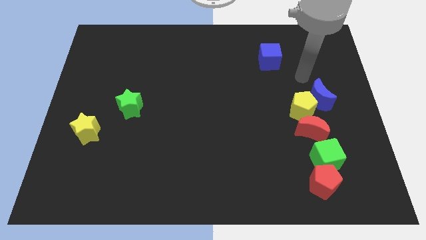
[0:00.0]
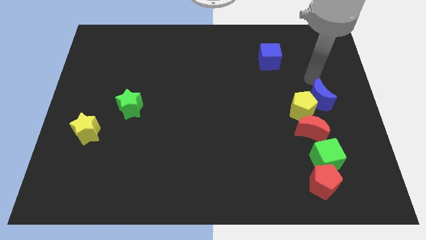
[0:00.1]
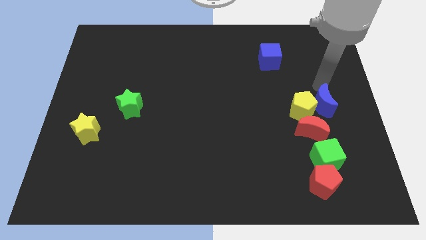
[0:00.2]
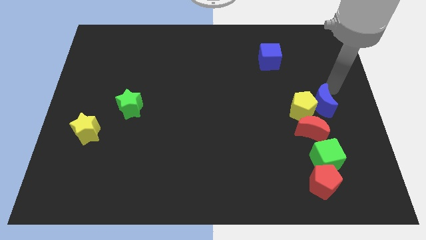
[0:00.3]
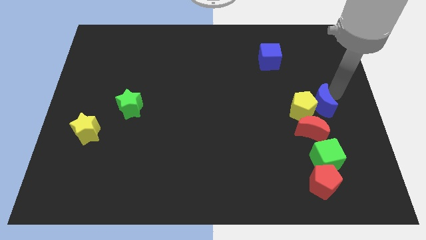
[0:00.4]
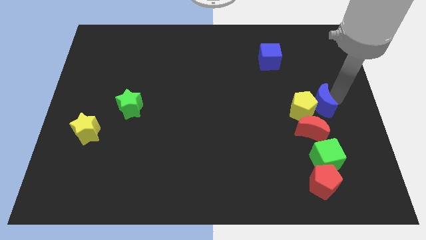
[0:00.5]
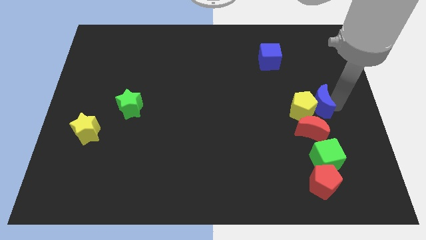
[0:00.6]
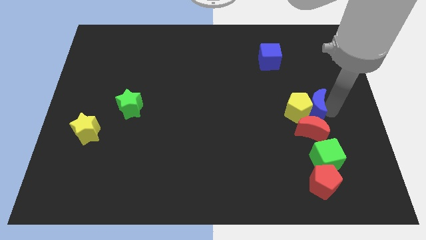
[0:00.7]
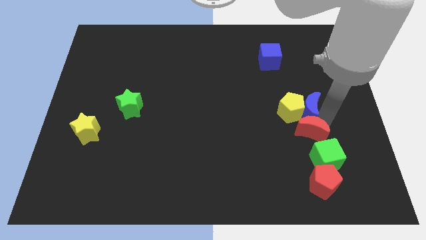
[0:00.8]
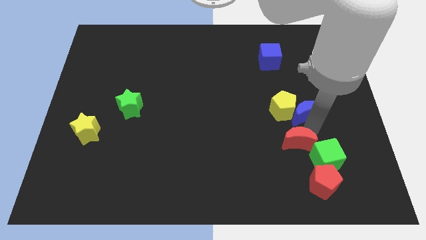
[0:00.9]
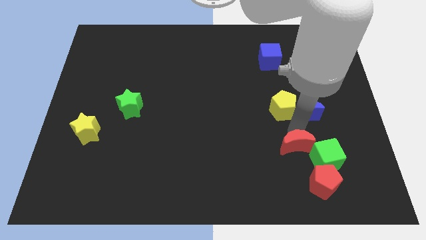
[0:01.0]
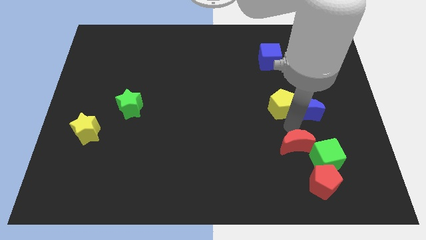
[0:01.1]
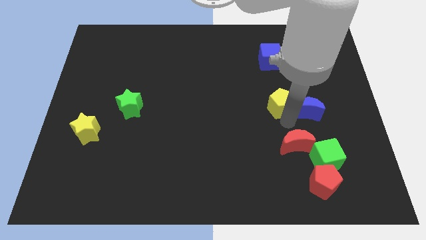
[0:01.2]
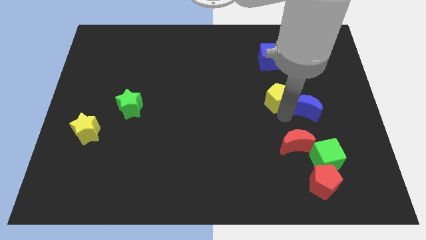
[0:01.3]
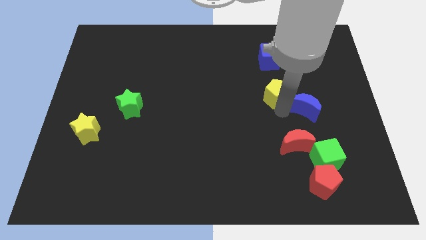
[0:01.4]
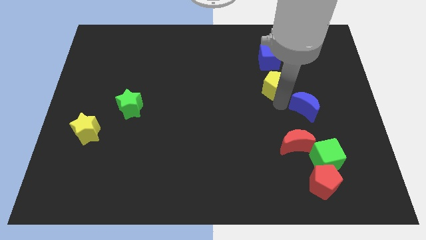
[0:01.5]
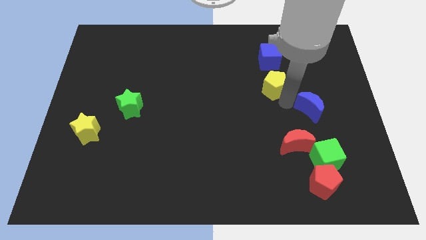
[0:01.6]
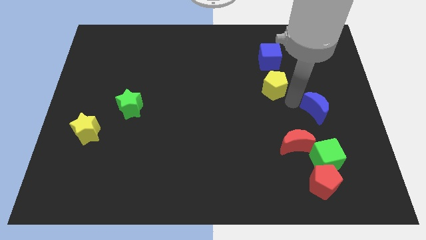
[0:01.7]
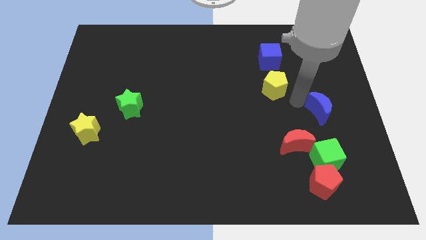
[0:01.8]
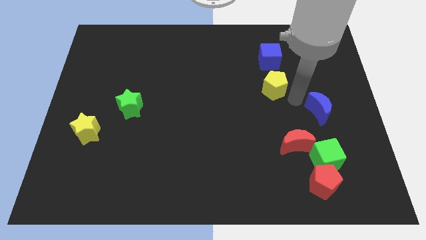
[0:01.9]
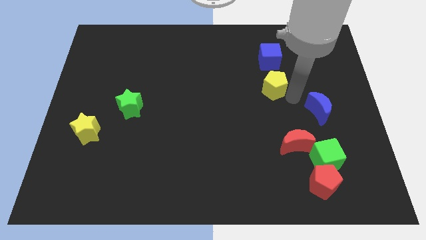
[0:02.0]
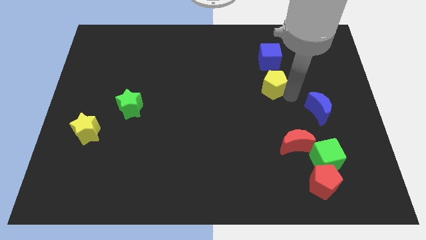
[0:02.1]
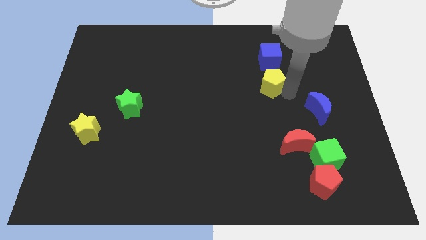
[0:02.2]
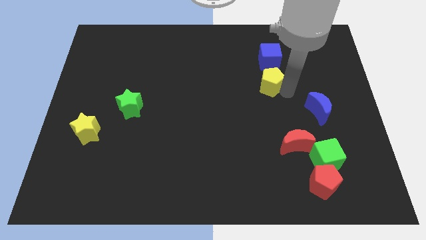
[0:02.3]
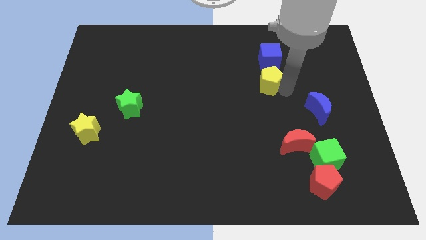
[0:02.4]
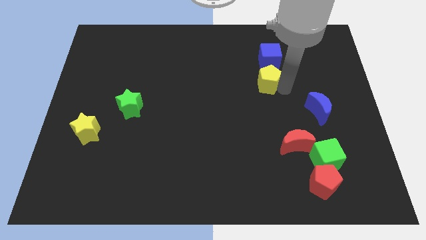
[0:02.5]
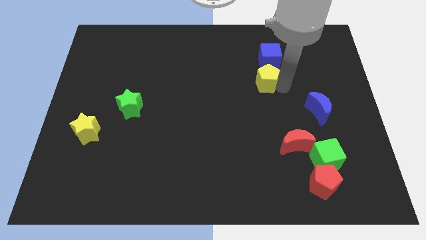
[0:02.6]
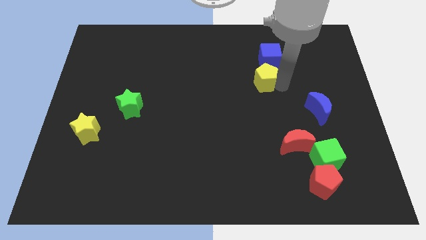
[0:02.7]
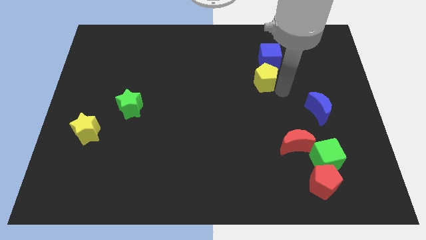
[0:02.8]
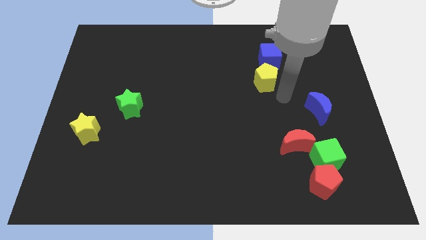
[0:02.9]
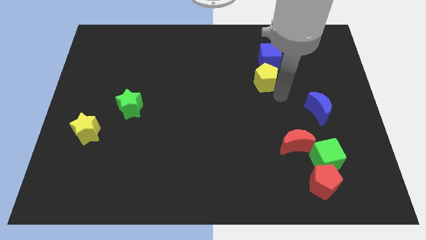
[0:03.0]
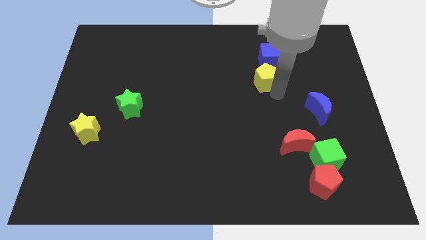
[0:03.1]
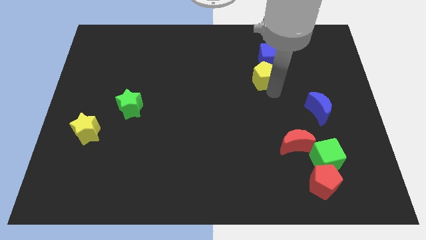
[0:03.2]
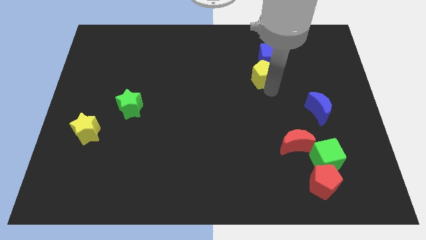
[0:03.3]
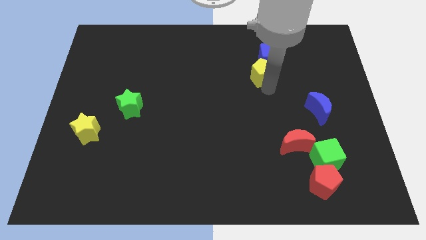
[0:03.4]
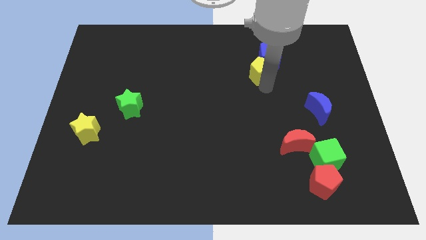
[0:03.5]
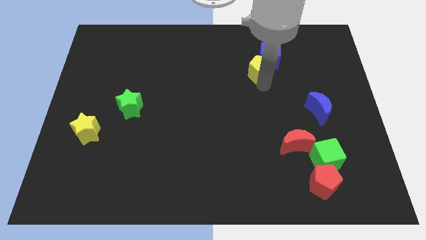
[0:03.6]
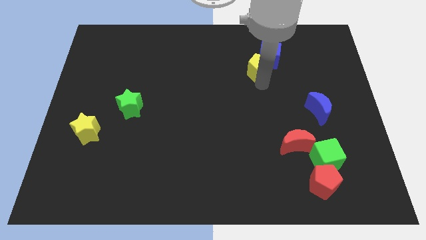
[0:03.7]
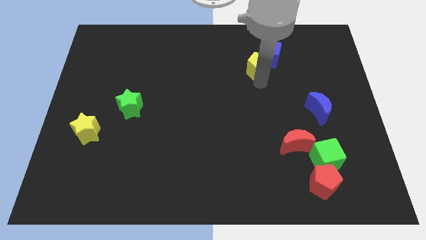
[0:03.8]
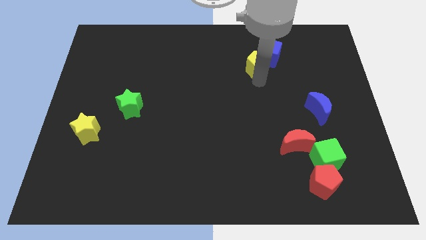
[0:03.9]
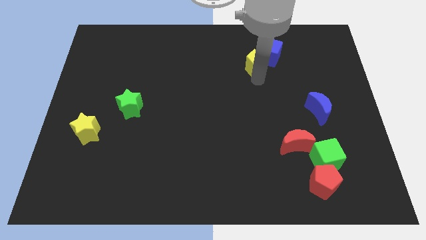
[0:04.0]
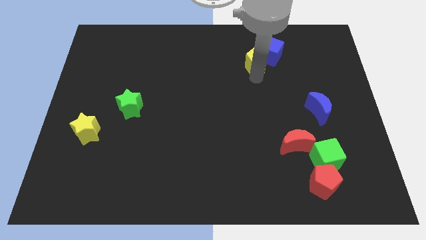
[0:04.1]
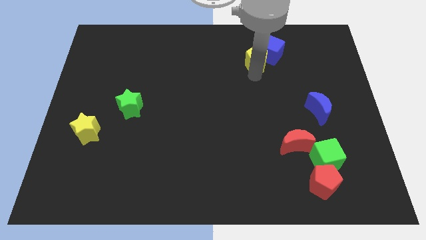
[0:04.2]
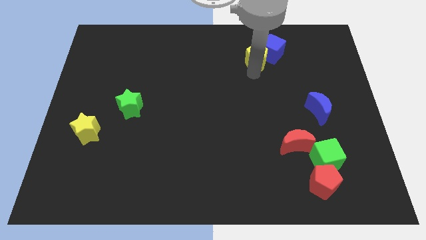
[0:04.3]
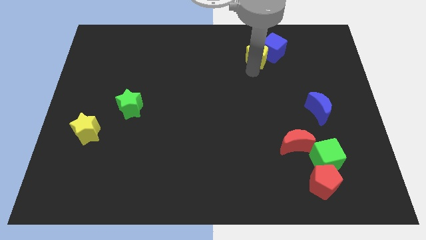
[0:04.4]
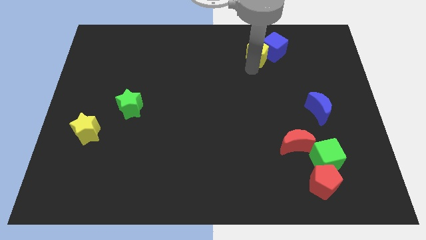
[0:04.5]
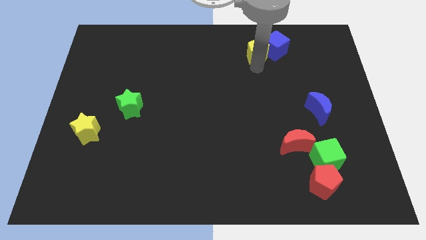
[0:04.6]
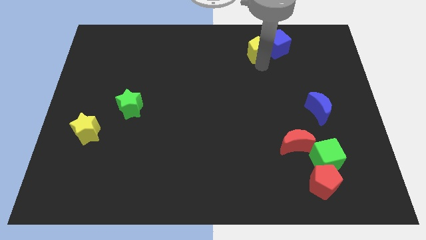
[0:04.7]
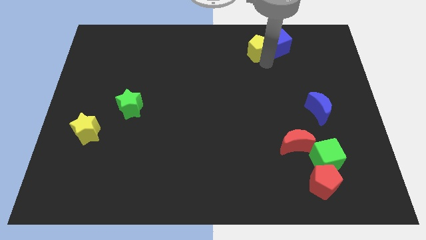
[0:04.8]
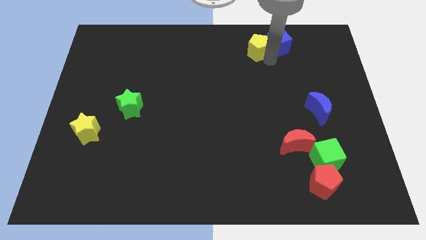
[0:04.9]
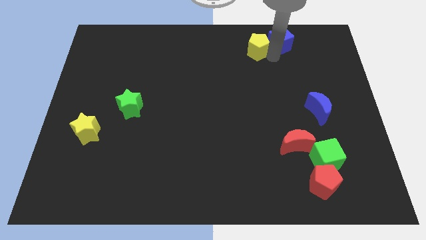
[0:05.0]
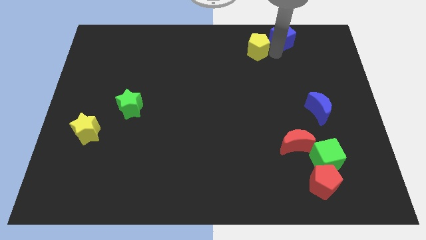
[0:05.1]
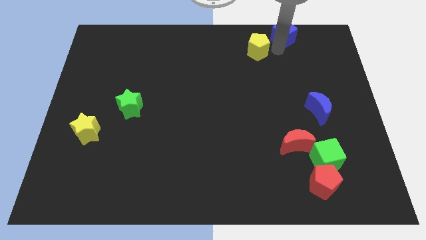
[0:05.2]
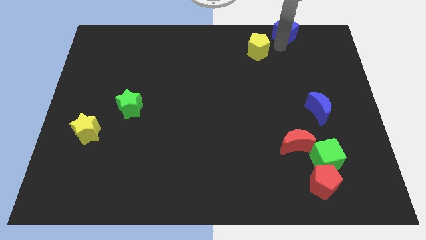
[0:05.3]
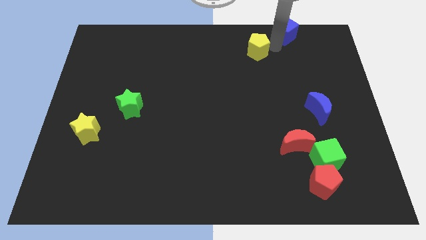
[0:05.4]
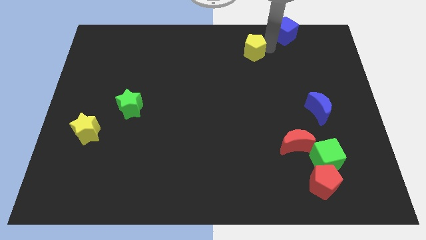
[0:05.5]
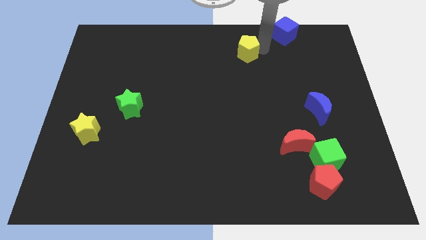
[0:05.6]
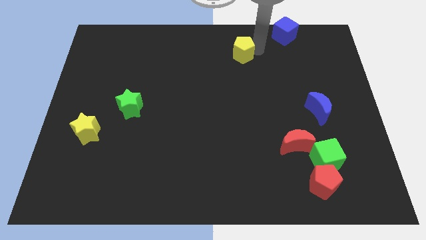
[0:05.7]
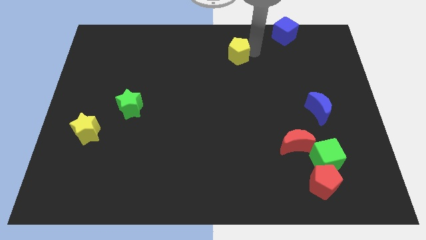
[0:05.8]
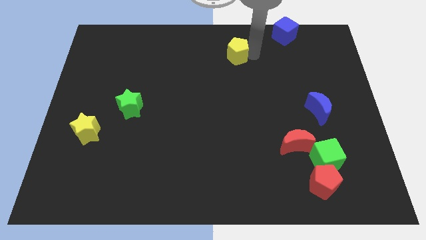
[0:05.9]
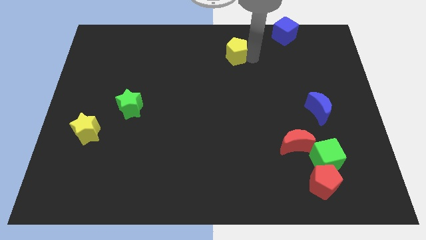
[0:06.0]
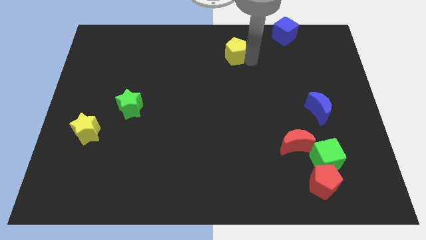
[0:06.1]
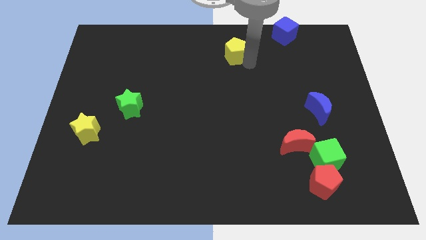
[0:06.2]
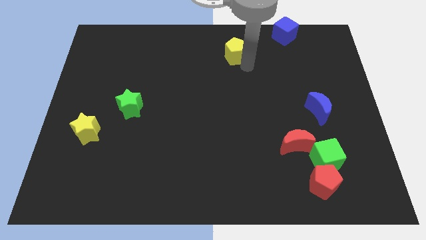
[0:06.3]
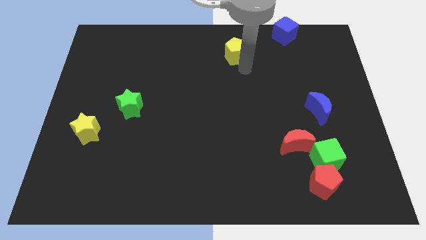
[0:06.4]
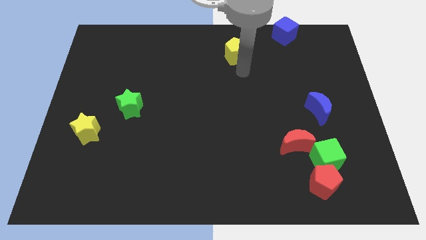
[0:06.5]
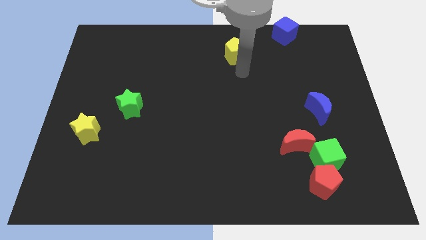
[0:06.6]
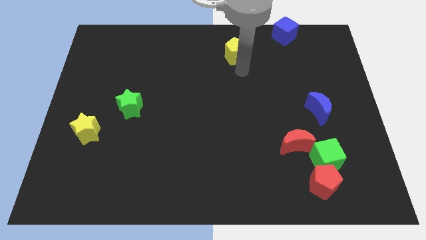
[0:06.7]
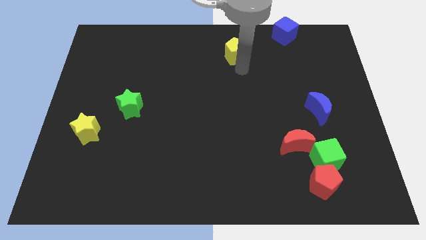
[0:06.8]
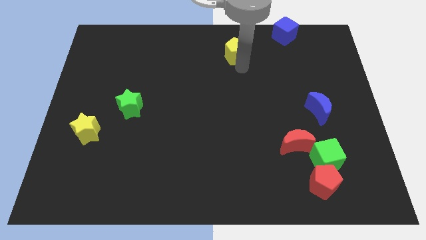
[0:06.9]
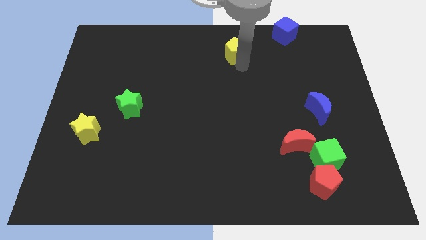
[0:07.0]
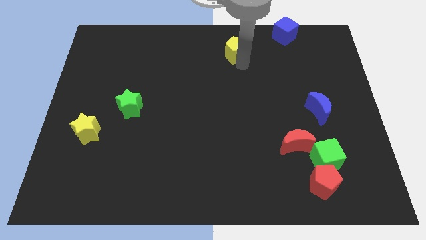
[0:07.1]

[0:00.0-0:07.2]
push the yellow pentagon to the top side

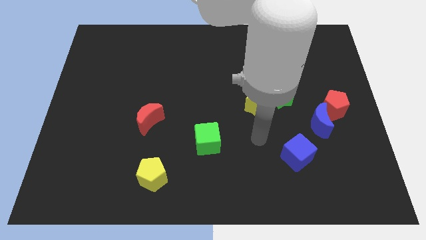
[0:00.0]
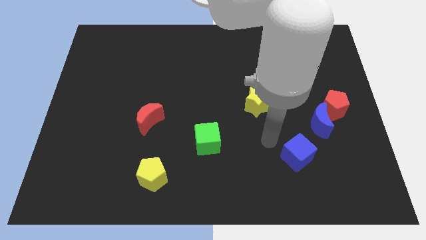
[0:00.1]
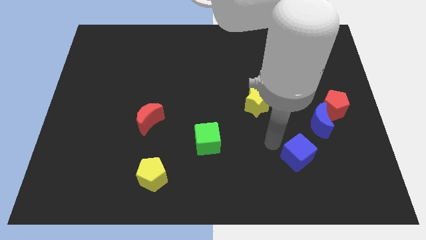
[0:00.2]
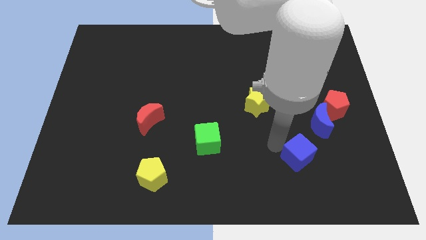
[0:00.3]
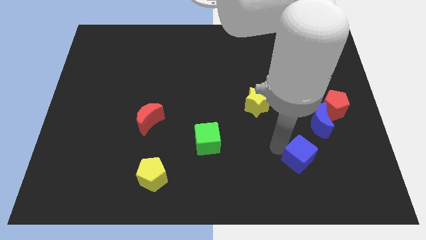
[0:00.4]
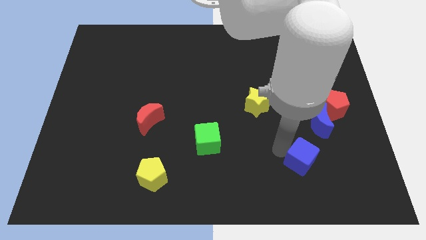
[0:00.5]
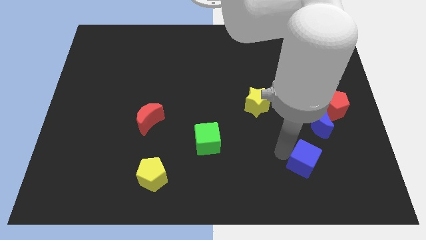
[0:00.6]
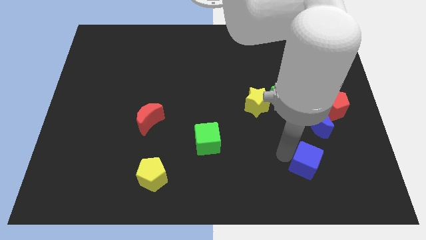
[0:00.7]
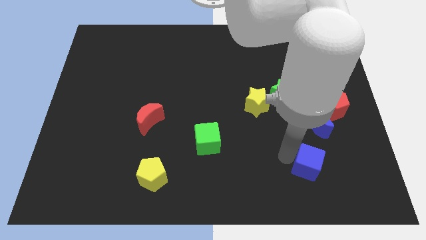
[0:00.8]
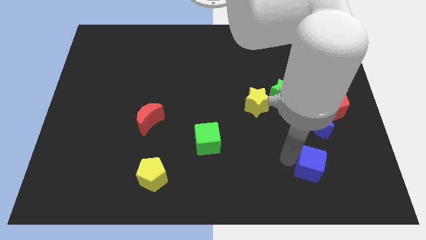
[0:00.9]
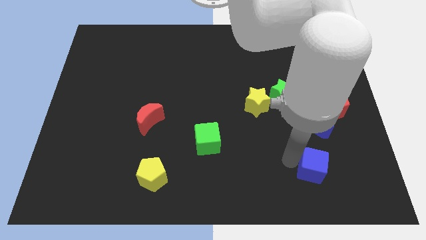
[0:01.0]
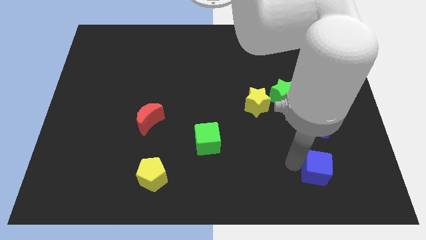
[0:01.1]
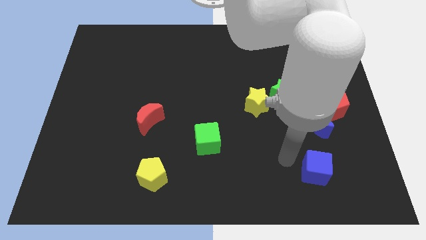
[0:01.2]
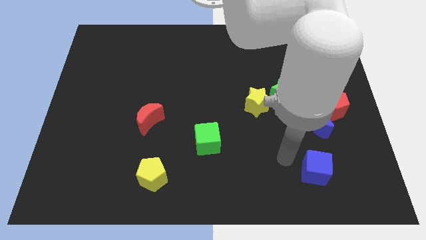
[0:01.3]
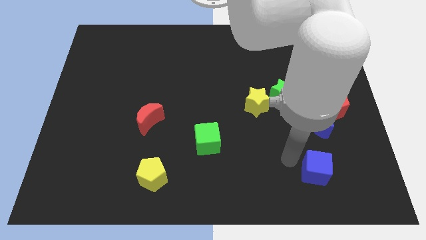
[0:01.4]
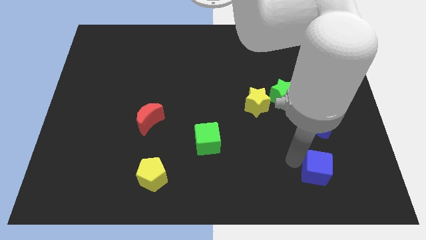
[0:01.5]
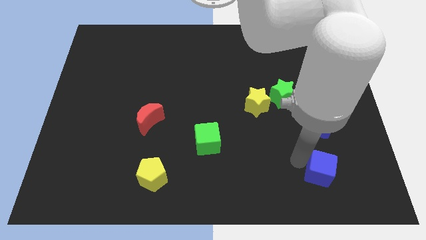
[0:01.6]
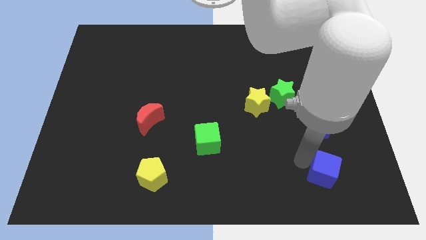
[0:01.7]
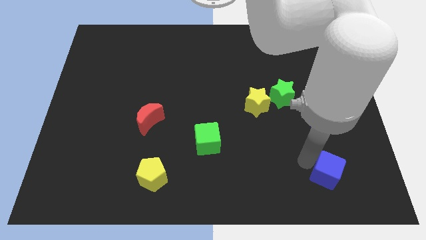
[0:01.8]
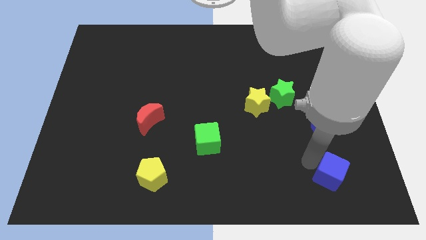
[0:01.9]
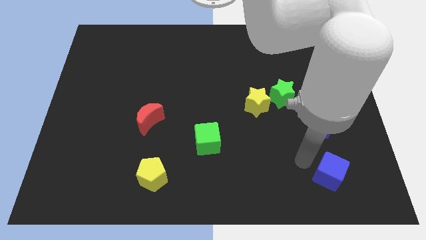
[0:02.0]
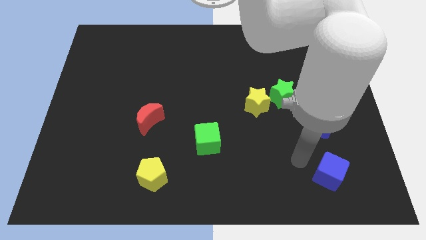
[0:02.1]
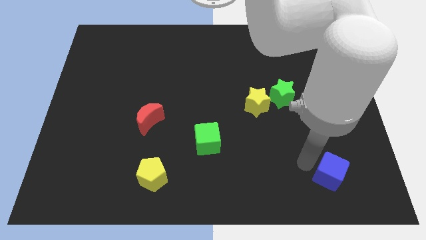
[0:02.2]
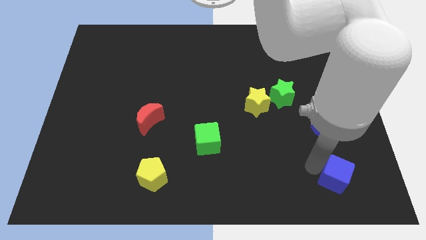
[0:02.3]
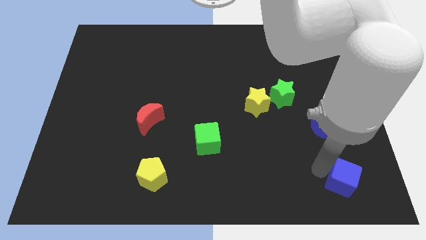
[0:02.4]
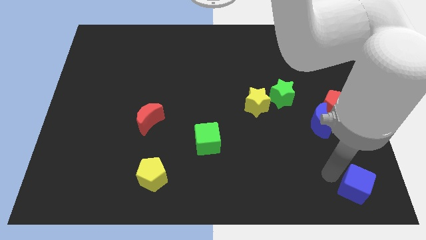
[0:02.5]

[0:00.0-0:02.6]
put the blue cube to the lower right corner
